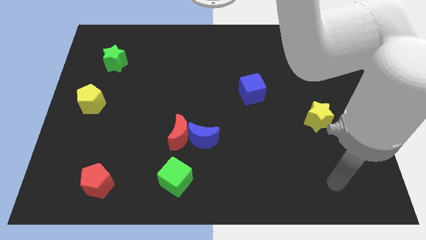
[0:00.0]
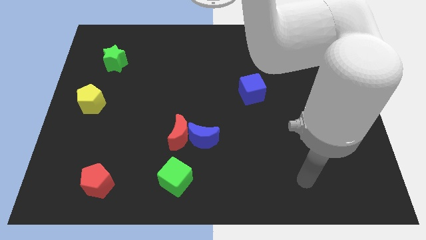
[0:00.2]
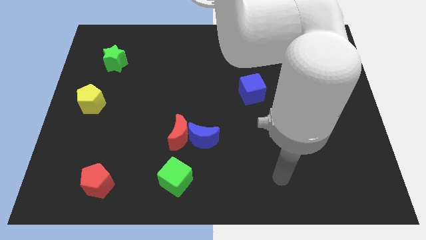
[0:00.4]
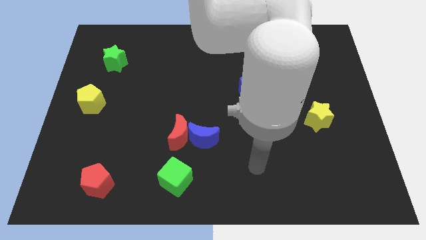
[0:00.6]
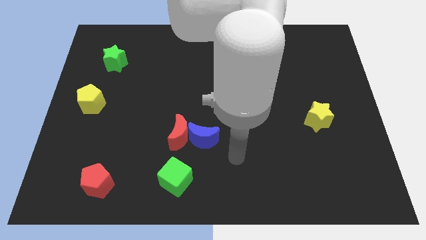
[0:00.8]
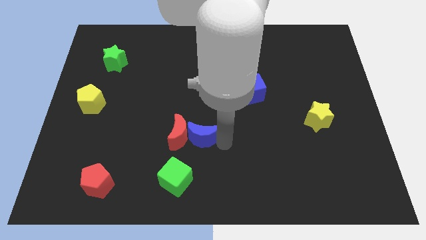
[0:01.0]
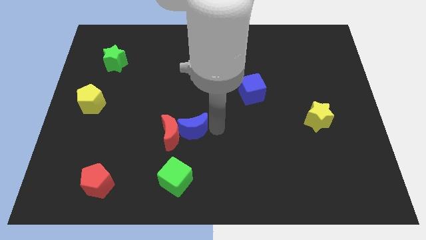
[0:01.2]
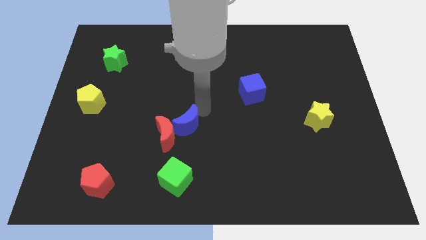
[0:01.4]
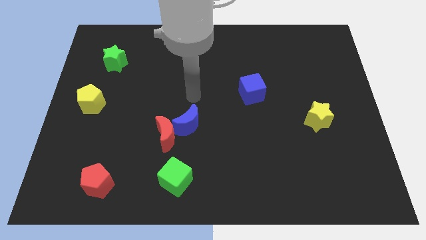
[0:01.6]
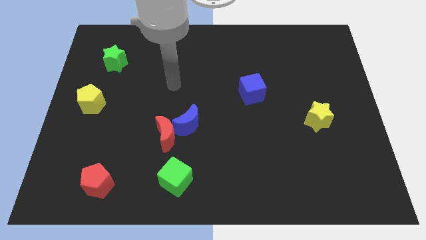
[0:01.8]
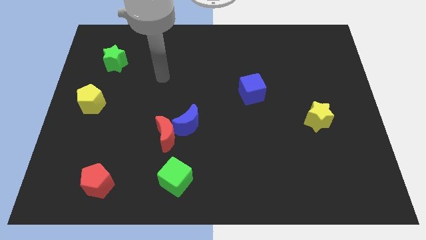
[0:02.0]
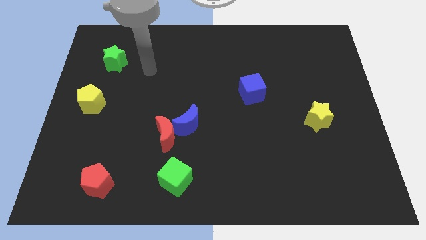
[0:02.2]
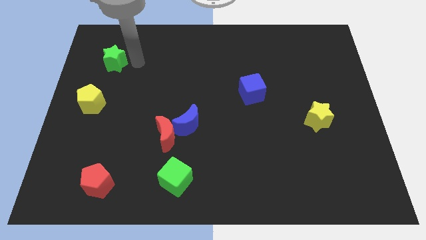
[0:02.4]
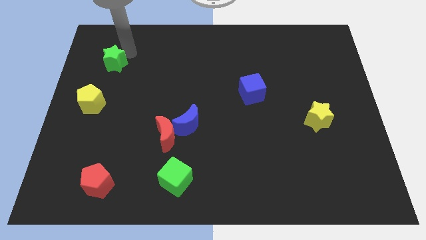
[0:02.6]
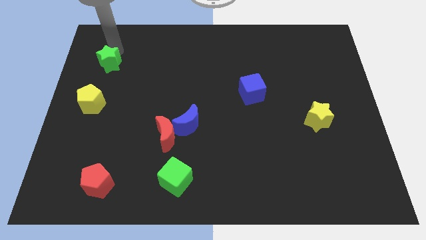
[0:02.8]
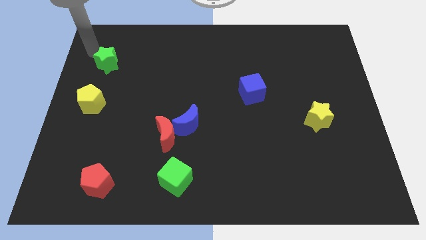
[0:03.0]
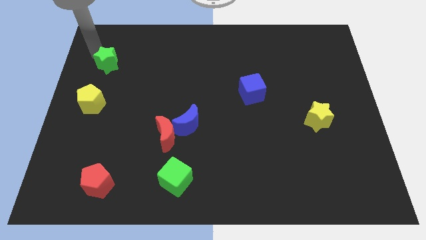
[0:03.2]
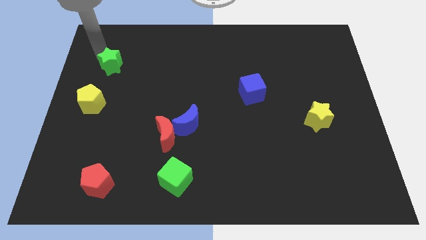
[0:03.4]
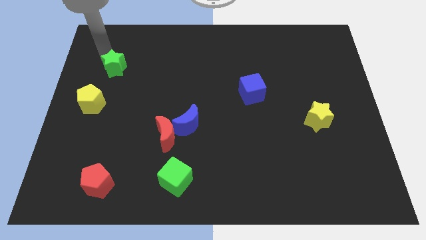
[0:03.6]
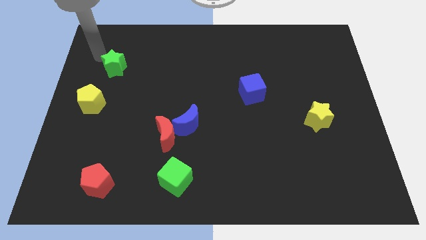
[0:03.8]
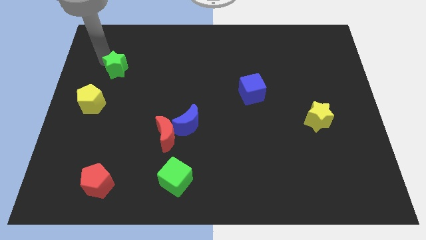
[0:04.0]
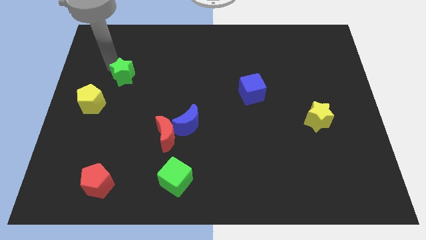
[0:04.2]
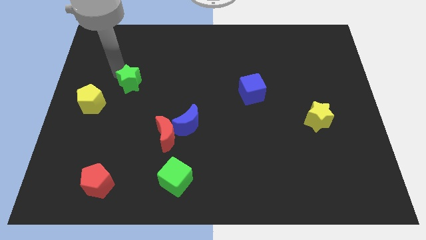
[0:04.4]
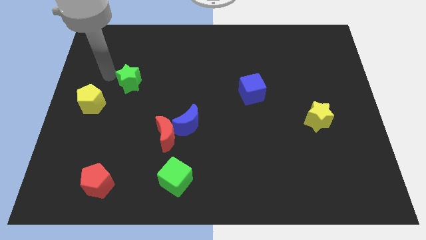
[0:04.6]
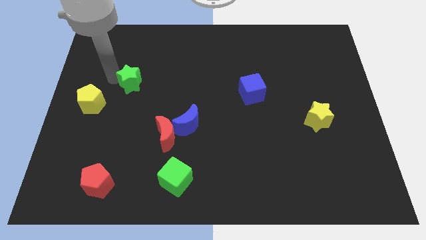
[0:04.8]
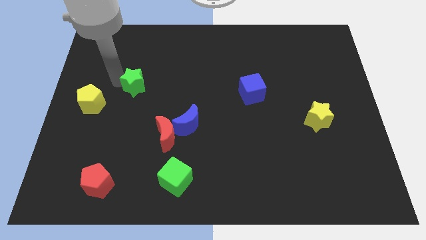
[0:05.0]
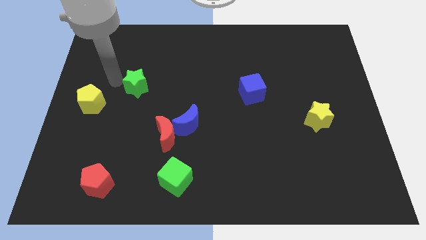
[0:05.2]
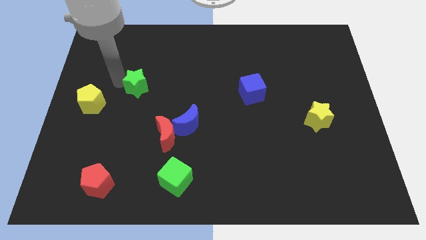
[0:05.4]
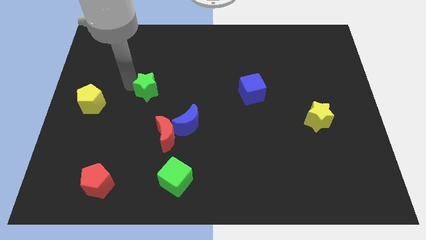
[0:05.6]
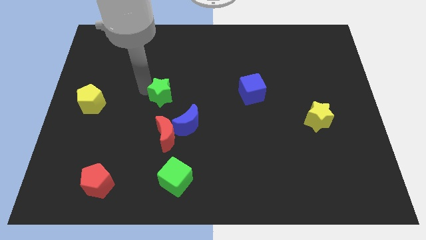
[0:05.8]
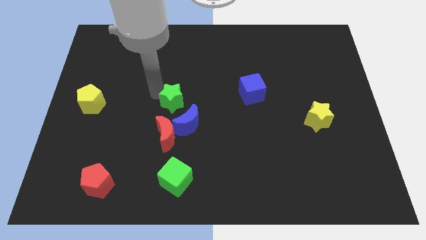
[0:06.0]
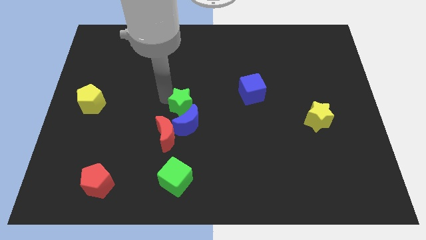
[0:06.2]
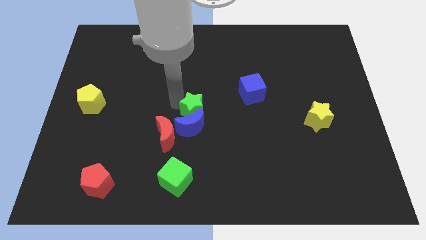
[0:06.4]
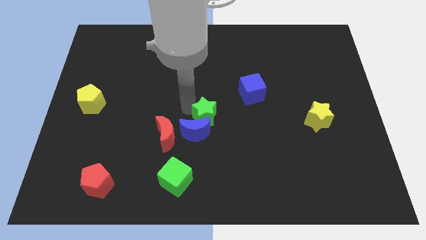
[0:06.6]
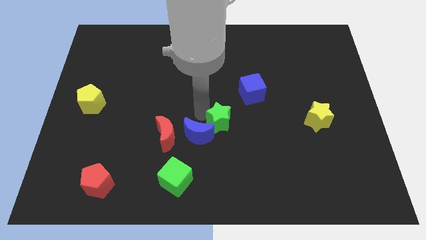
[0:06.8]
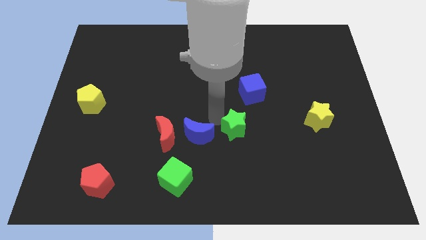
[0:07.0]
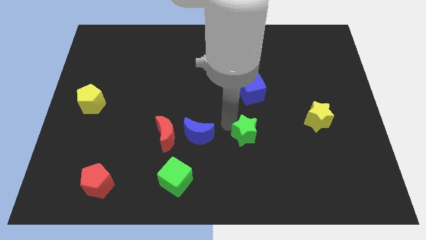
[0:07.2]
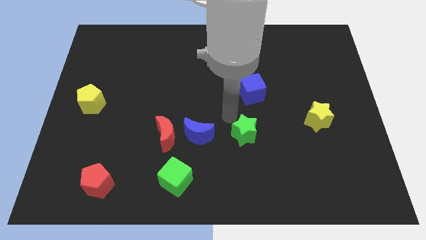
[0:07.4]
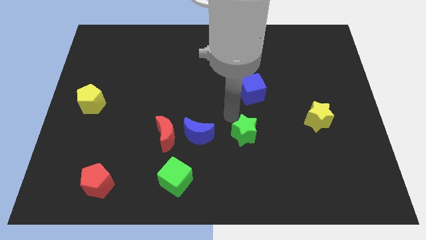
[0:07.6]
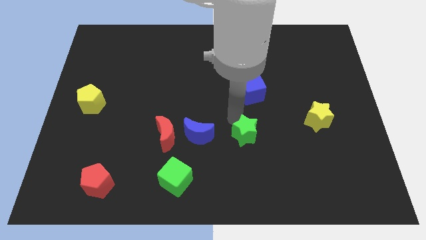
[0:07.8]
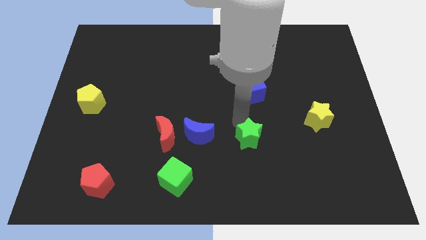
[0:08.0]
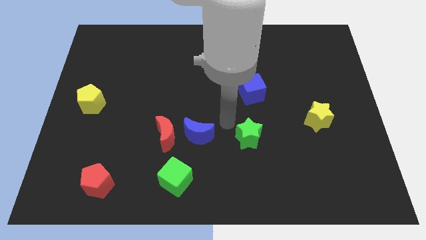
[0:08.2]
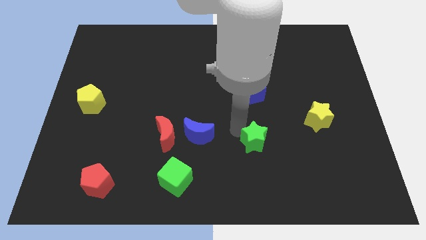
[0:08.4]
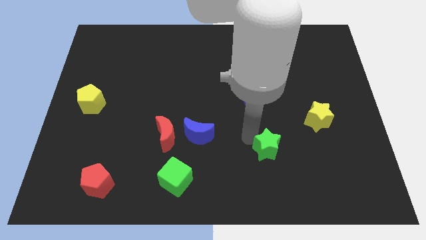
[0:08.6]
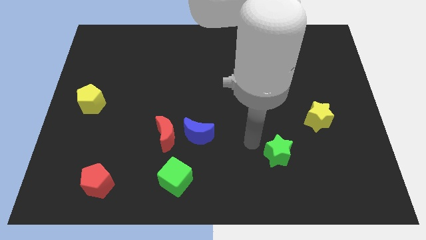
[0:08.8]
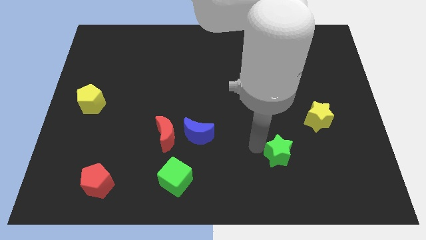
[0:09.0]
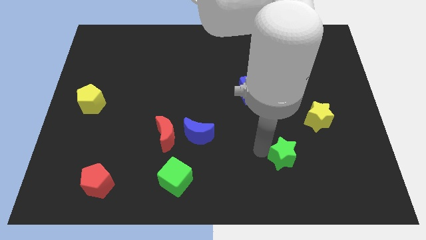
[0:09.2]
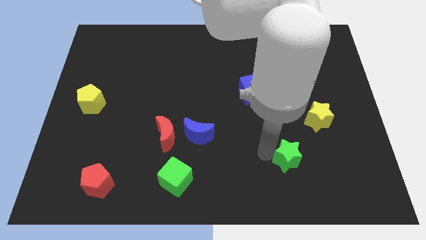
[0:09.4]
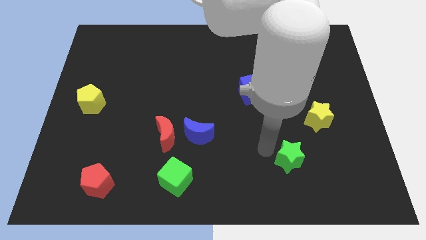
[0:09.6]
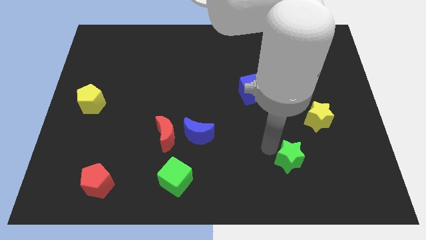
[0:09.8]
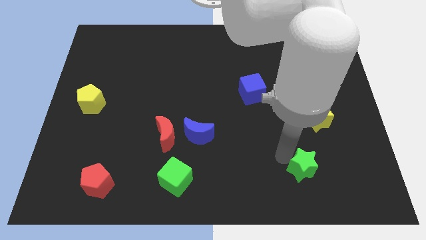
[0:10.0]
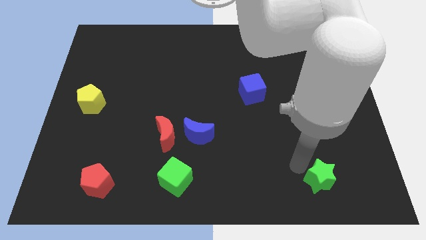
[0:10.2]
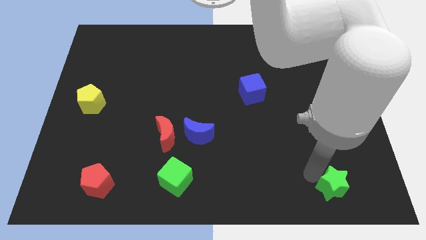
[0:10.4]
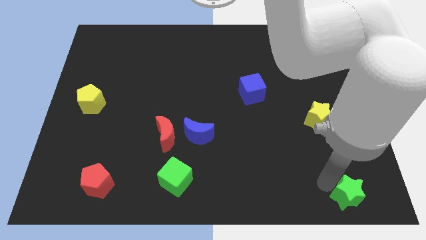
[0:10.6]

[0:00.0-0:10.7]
move the green star to the bottom right corner

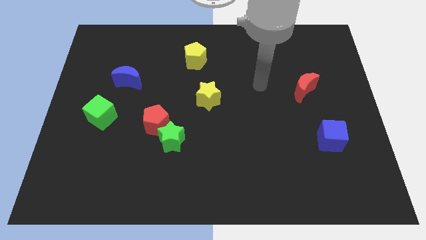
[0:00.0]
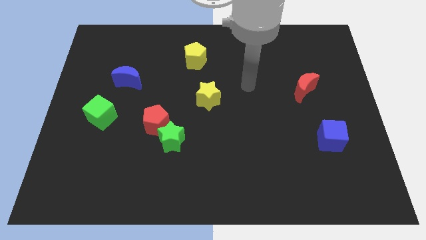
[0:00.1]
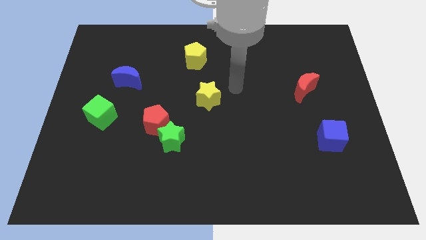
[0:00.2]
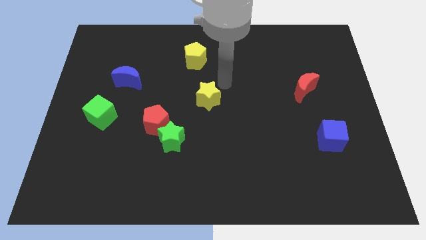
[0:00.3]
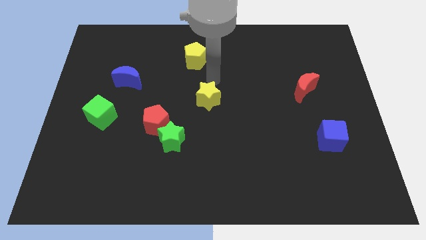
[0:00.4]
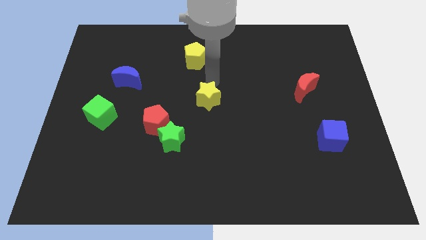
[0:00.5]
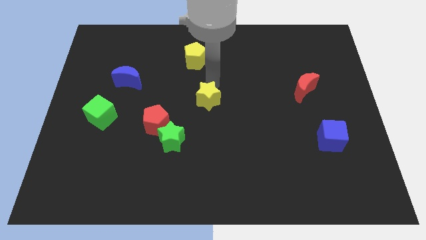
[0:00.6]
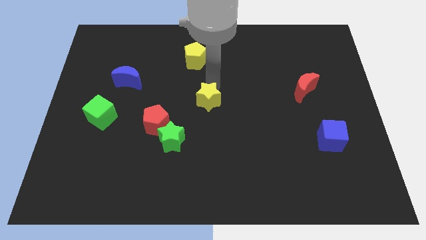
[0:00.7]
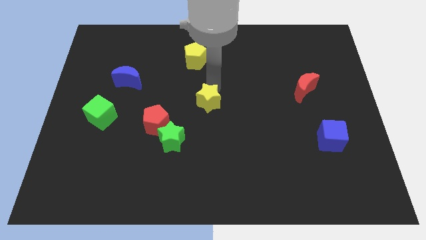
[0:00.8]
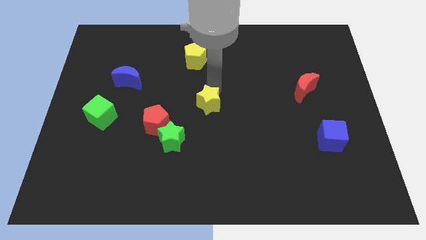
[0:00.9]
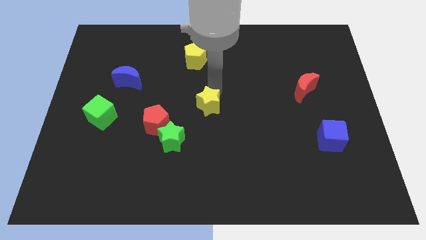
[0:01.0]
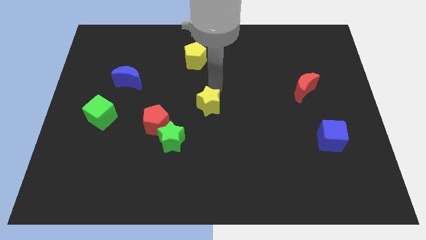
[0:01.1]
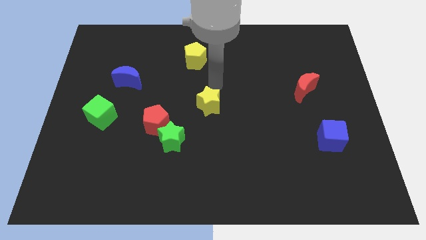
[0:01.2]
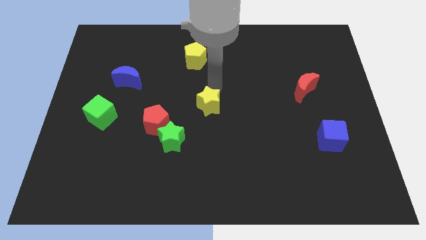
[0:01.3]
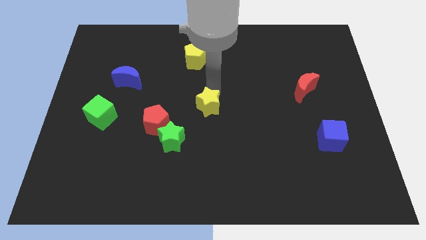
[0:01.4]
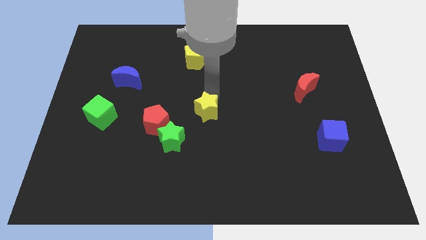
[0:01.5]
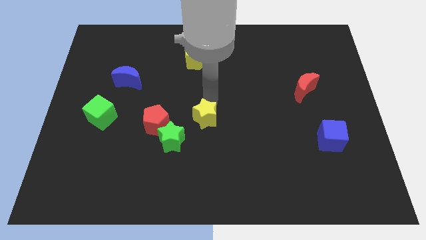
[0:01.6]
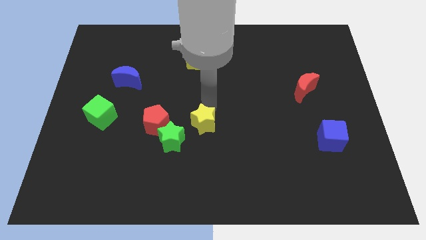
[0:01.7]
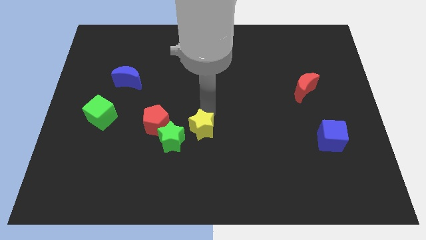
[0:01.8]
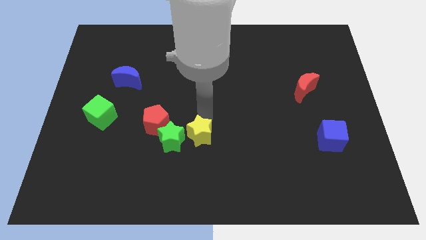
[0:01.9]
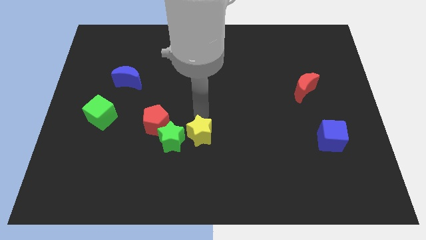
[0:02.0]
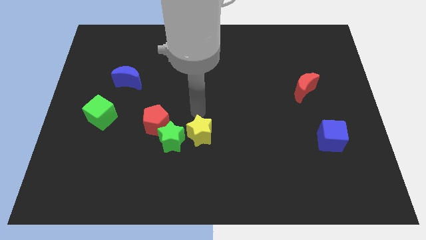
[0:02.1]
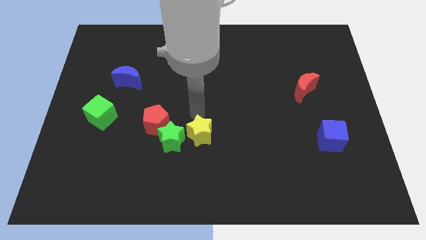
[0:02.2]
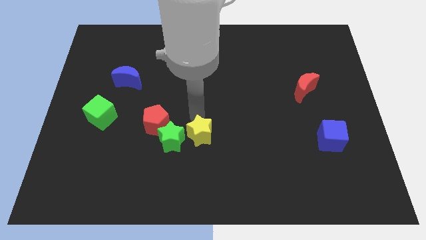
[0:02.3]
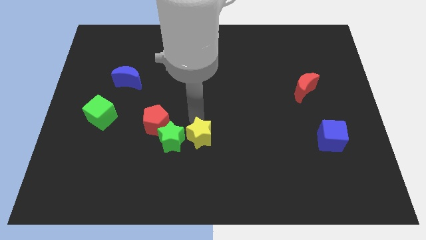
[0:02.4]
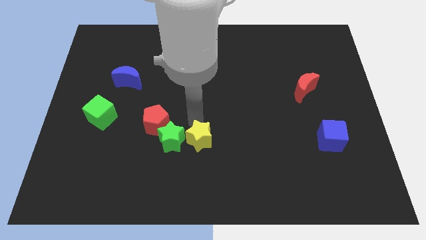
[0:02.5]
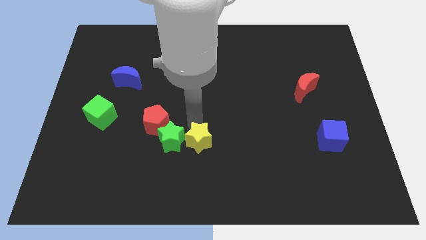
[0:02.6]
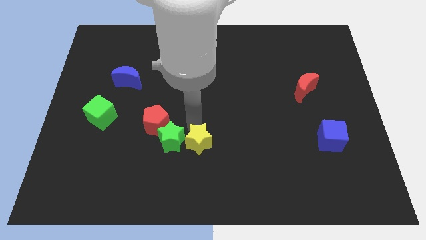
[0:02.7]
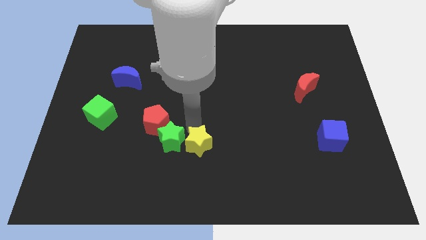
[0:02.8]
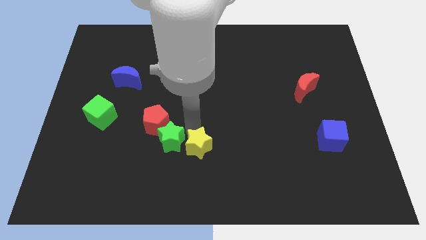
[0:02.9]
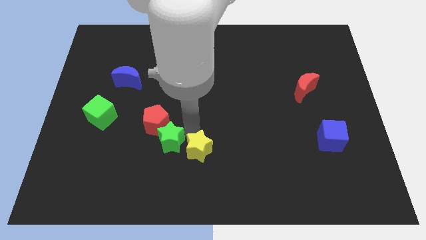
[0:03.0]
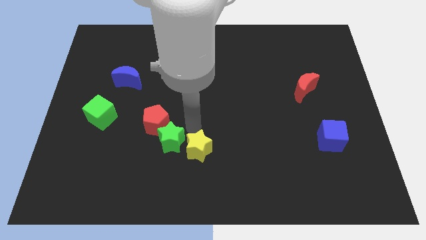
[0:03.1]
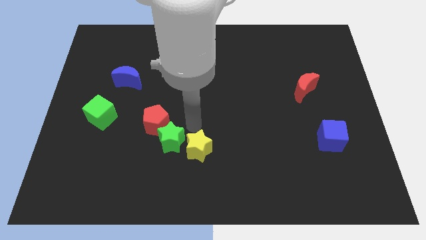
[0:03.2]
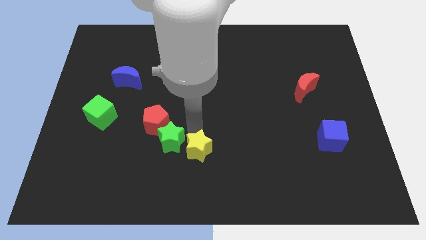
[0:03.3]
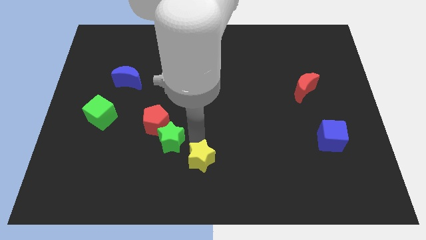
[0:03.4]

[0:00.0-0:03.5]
push the yellow star to the bottom side
